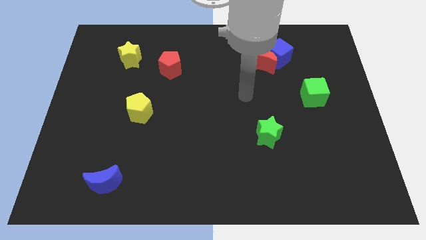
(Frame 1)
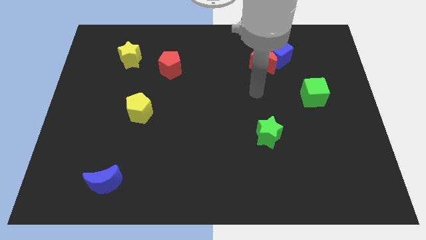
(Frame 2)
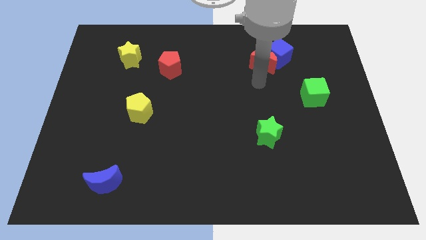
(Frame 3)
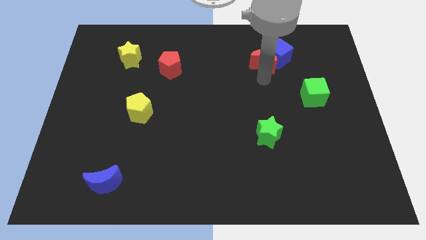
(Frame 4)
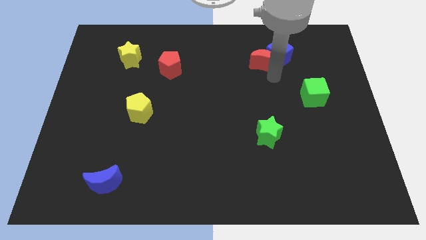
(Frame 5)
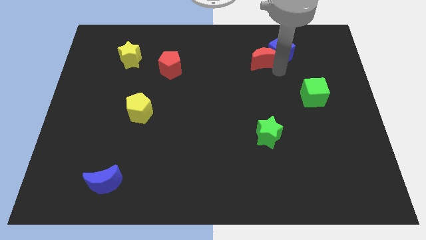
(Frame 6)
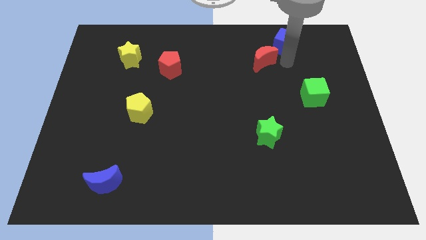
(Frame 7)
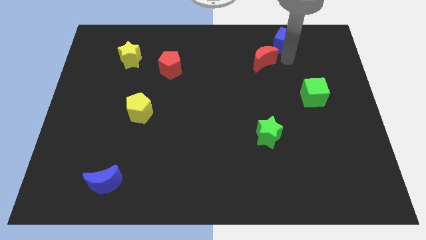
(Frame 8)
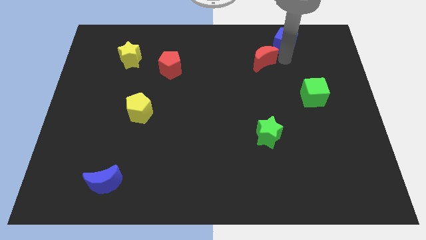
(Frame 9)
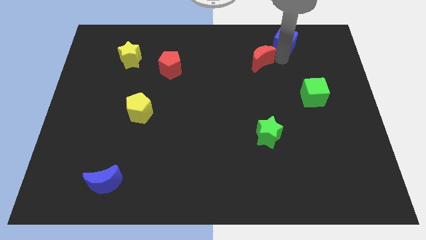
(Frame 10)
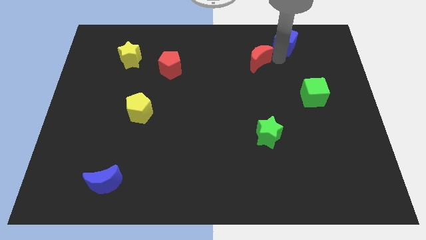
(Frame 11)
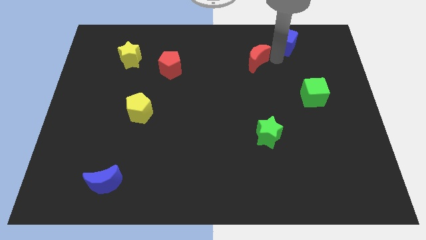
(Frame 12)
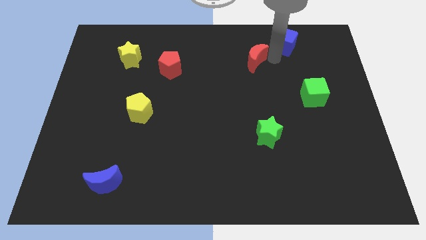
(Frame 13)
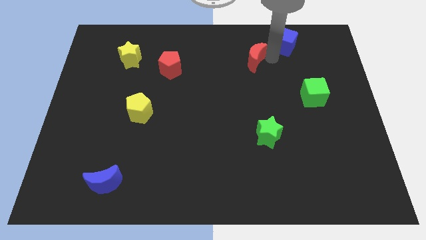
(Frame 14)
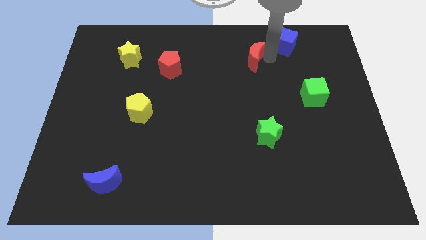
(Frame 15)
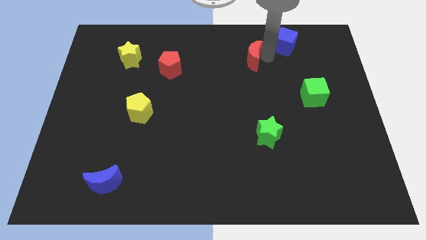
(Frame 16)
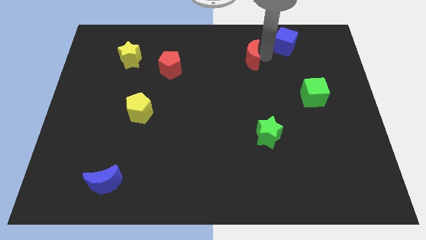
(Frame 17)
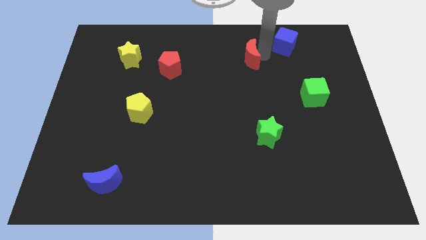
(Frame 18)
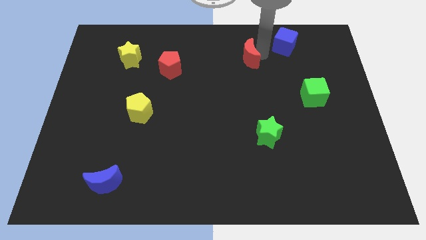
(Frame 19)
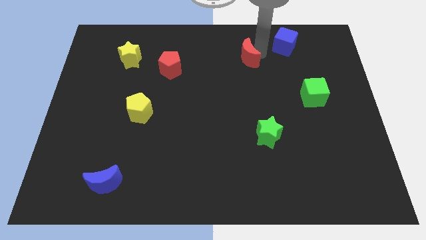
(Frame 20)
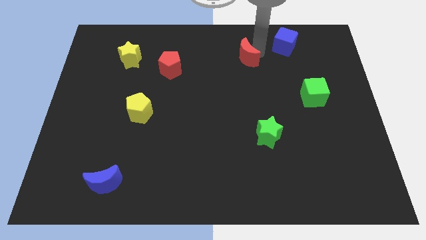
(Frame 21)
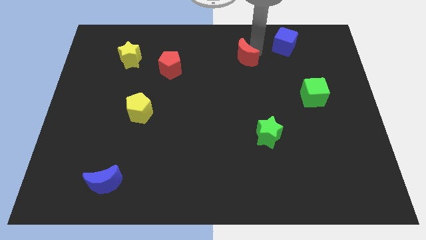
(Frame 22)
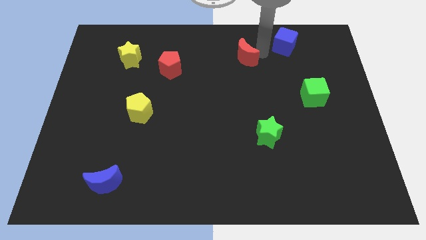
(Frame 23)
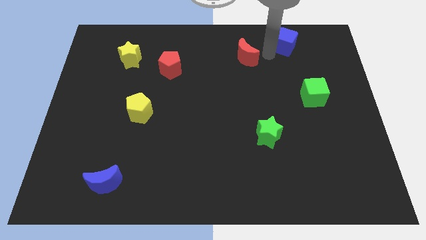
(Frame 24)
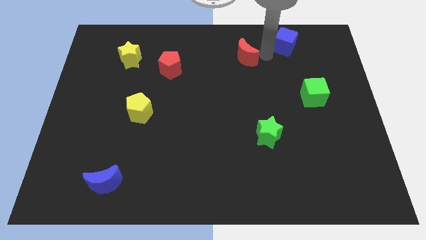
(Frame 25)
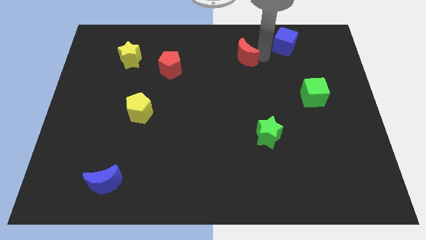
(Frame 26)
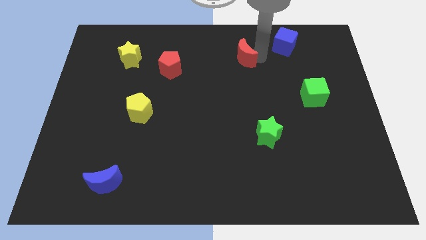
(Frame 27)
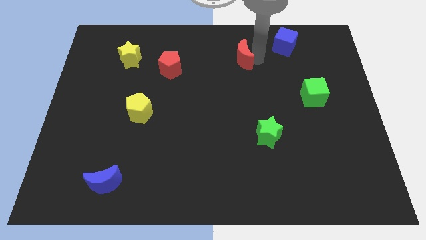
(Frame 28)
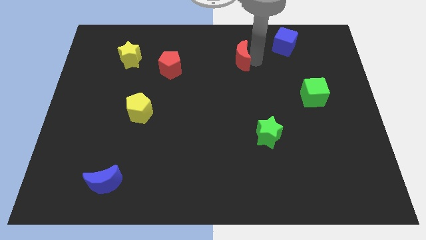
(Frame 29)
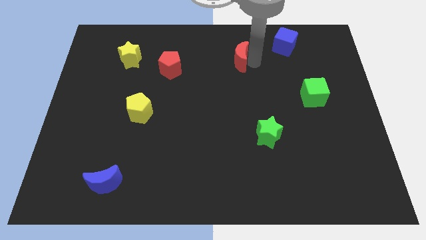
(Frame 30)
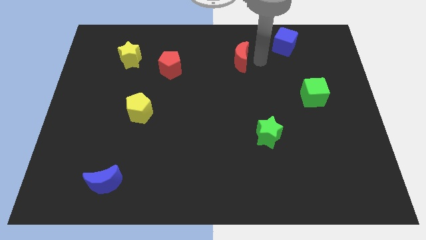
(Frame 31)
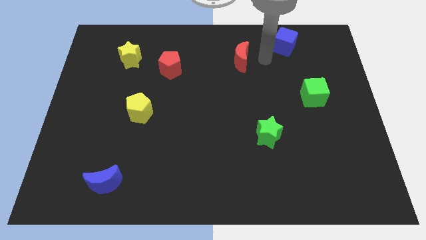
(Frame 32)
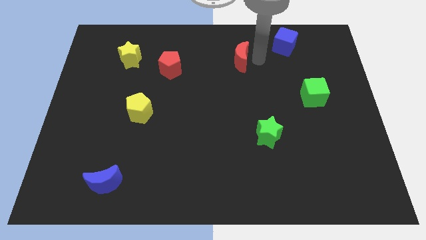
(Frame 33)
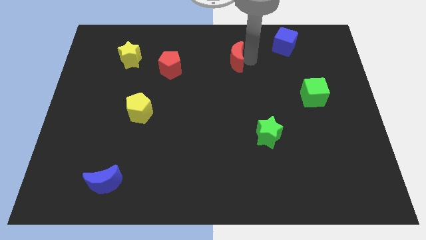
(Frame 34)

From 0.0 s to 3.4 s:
slide the red moon to the left a bit

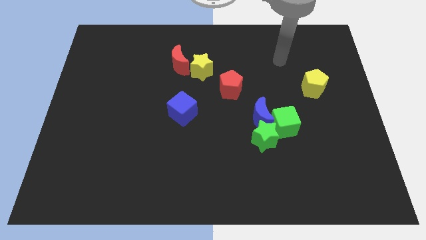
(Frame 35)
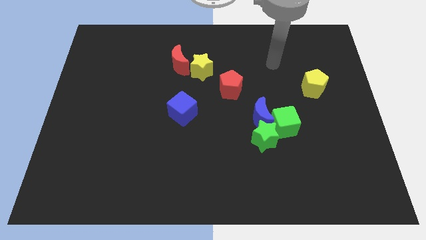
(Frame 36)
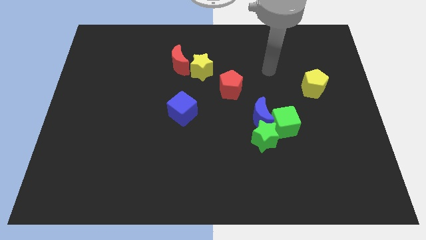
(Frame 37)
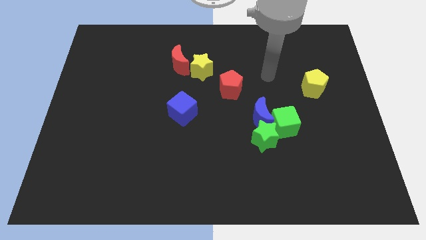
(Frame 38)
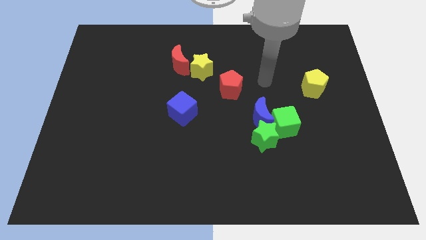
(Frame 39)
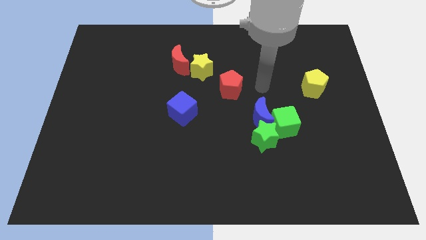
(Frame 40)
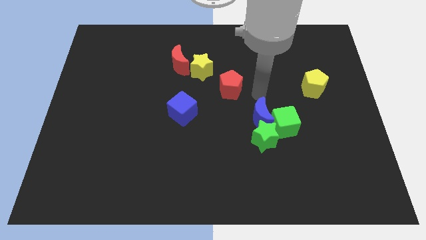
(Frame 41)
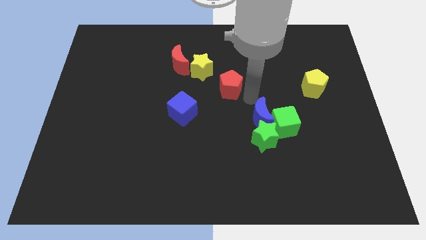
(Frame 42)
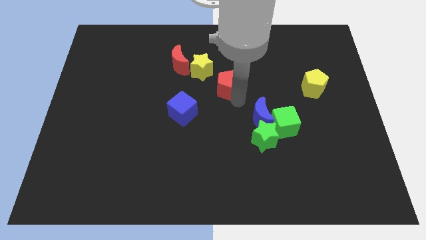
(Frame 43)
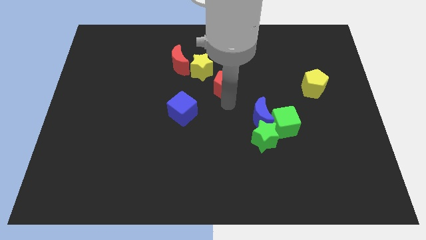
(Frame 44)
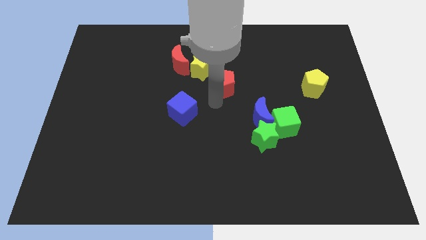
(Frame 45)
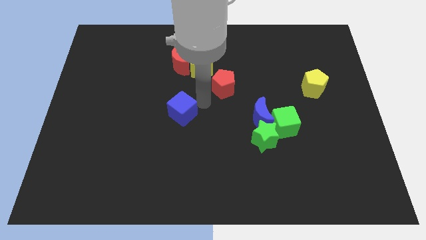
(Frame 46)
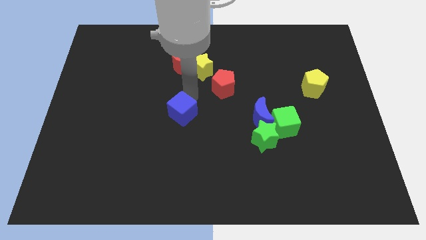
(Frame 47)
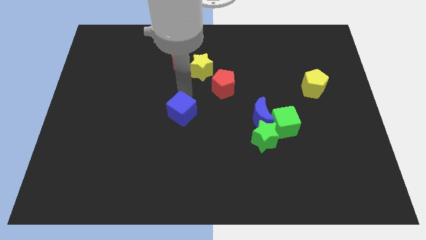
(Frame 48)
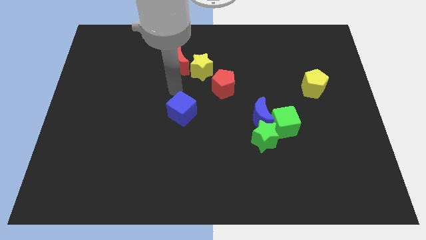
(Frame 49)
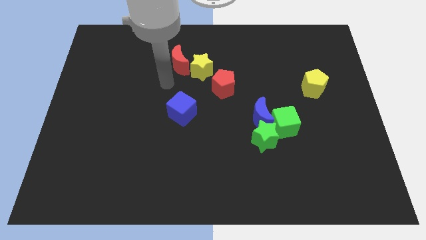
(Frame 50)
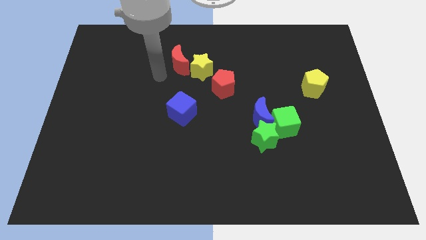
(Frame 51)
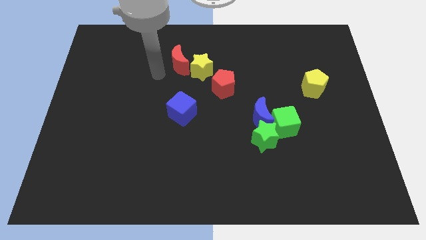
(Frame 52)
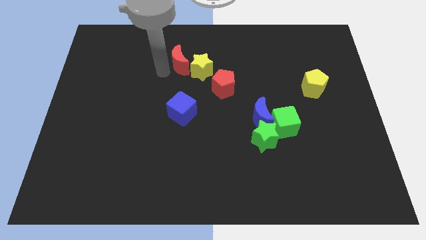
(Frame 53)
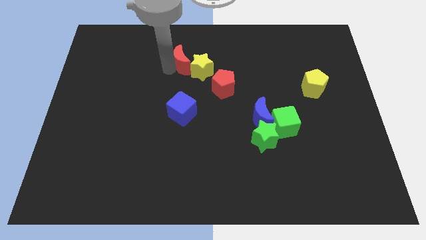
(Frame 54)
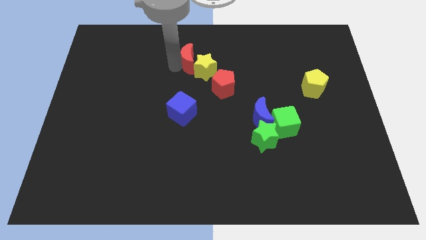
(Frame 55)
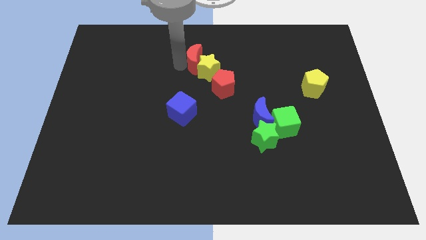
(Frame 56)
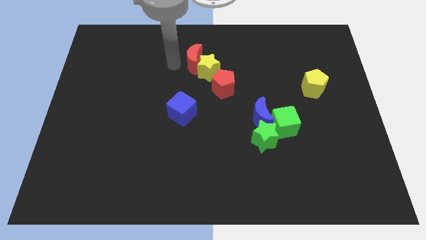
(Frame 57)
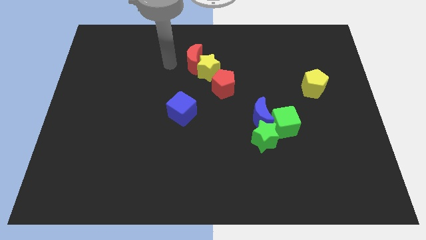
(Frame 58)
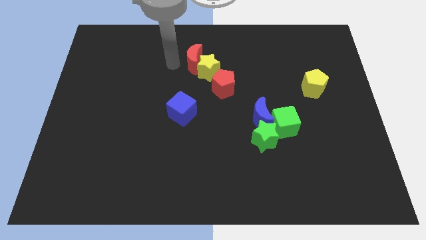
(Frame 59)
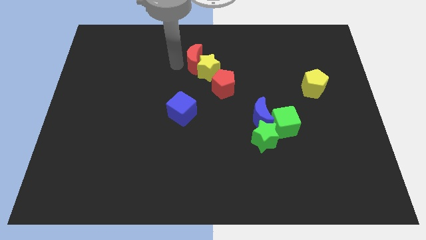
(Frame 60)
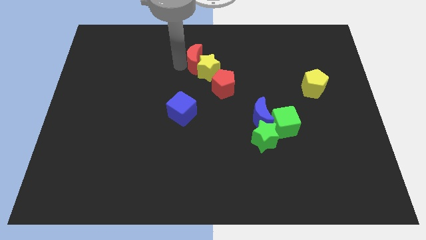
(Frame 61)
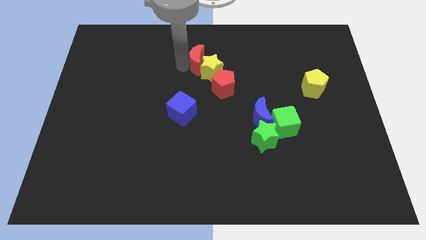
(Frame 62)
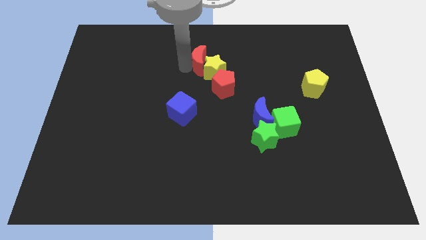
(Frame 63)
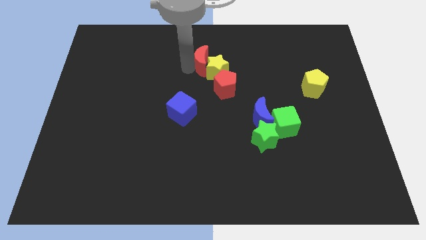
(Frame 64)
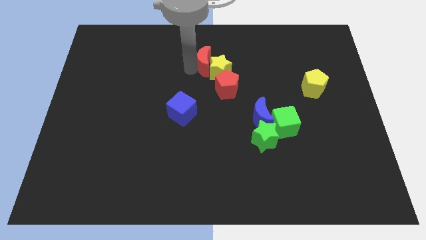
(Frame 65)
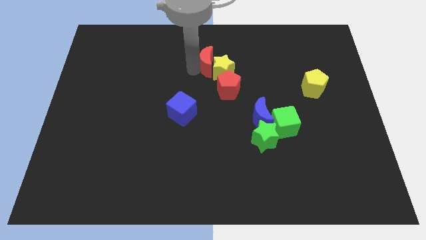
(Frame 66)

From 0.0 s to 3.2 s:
push the red moon to the right somewhat

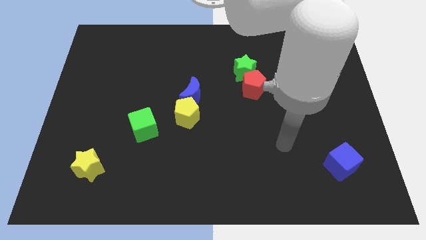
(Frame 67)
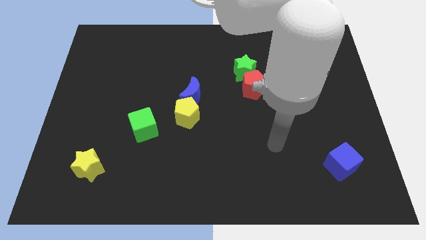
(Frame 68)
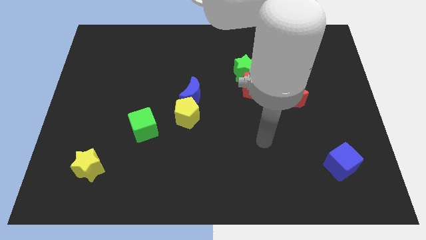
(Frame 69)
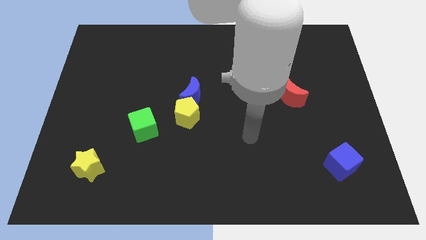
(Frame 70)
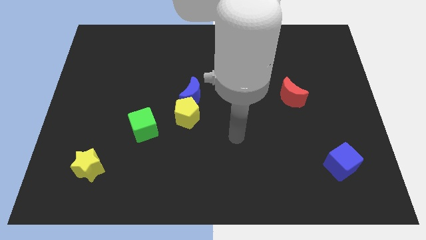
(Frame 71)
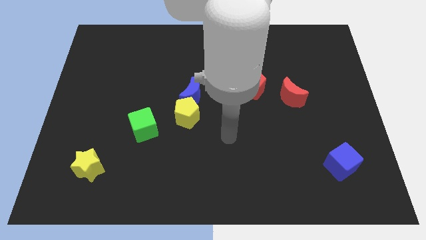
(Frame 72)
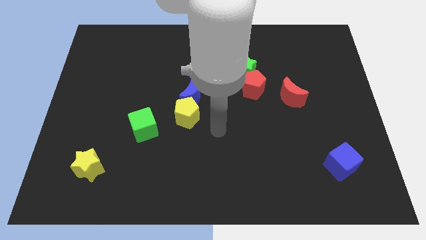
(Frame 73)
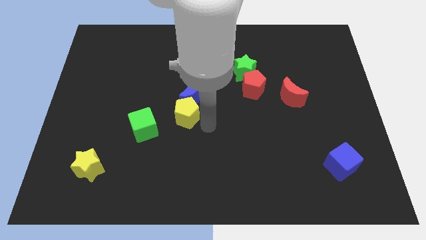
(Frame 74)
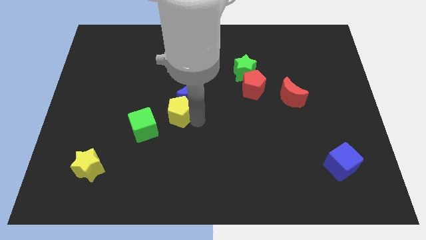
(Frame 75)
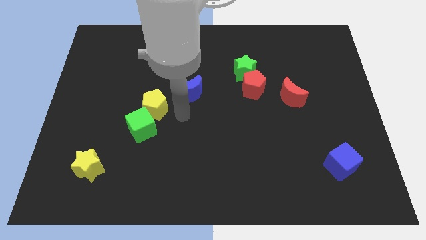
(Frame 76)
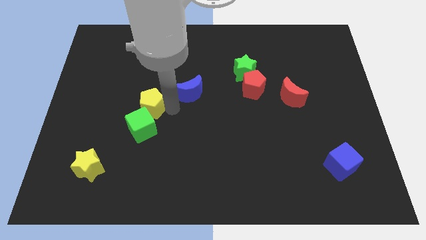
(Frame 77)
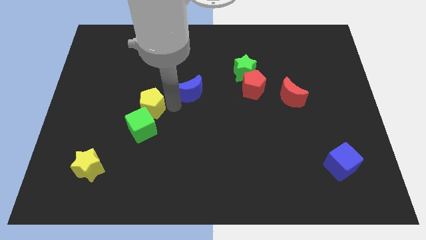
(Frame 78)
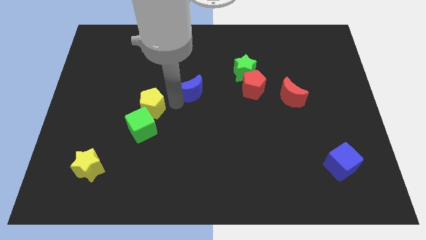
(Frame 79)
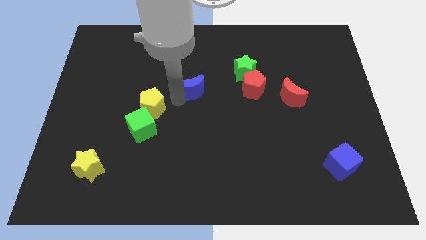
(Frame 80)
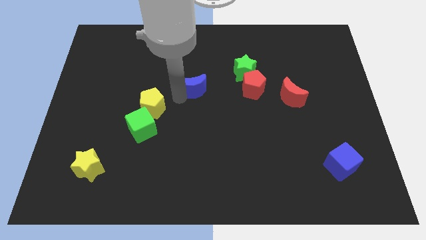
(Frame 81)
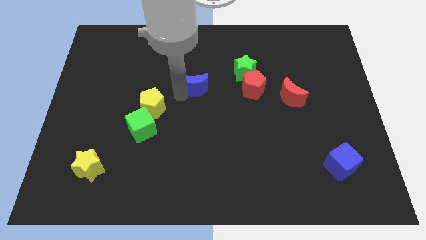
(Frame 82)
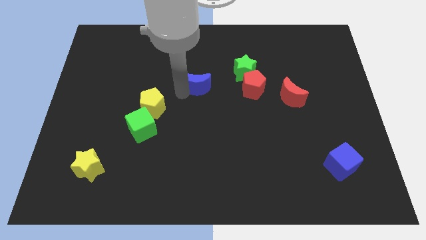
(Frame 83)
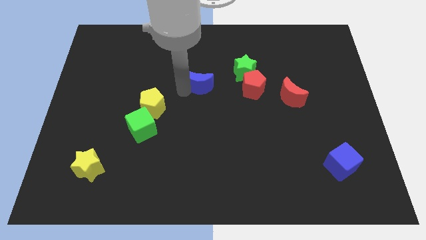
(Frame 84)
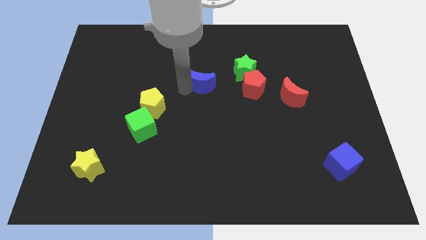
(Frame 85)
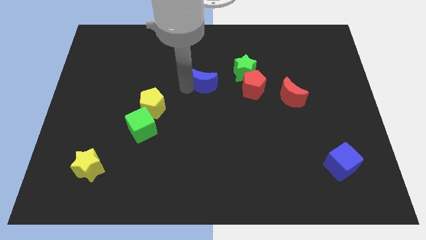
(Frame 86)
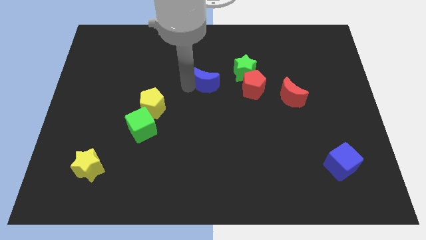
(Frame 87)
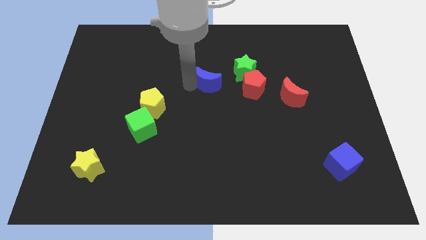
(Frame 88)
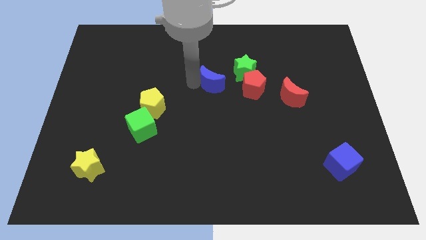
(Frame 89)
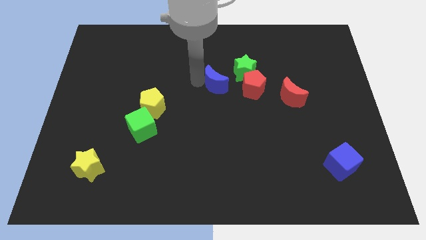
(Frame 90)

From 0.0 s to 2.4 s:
move the blue moon somewhat upwards and to the right diagonally
